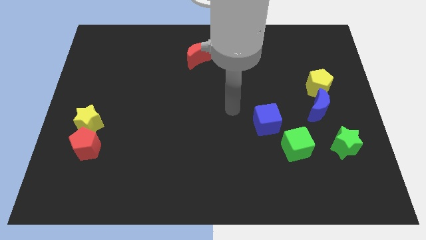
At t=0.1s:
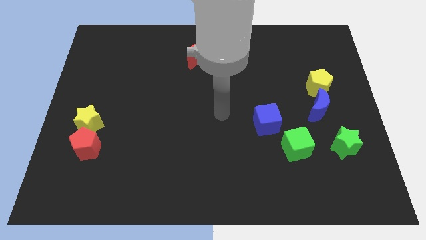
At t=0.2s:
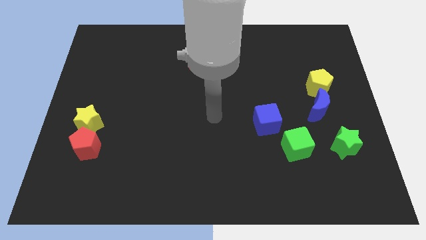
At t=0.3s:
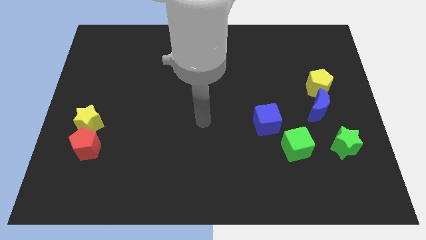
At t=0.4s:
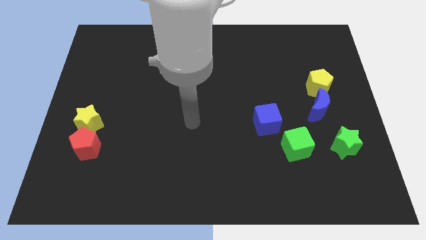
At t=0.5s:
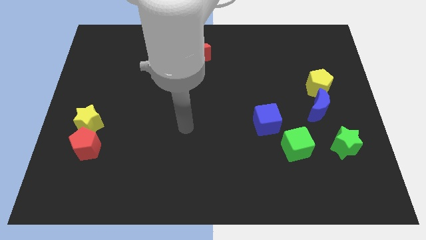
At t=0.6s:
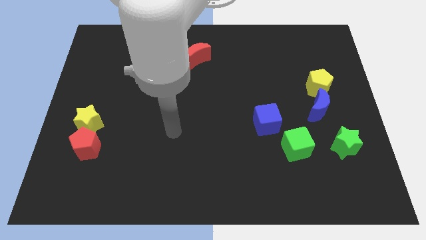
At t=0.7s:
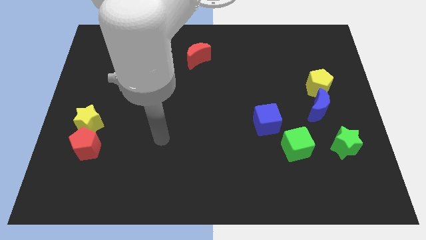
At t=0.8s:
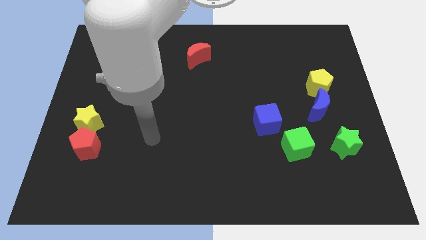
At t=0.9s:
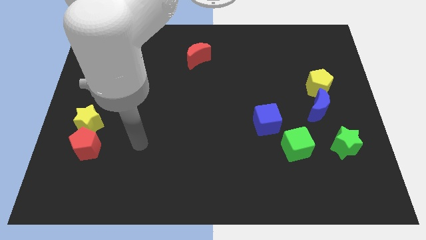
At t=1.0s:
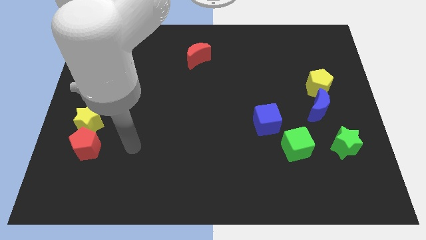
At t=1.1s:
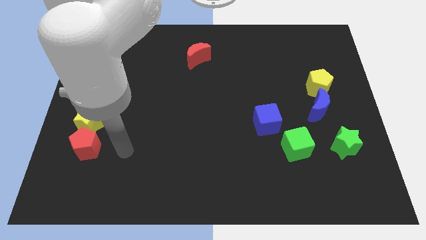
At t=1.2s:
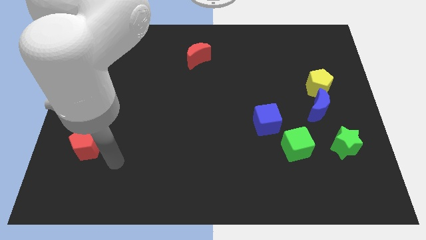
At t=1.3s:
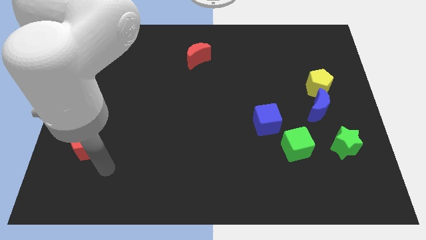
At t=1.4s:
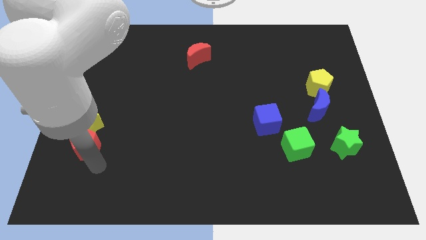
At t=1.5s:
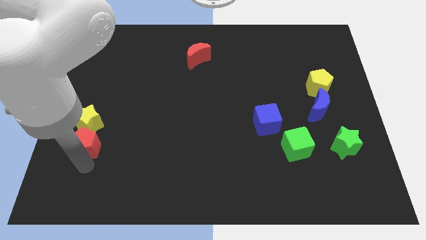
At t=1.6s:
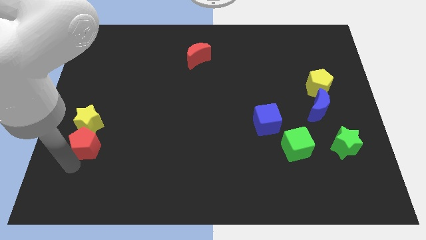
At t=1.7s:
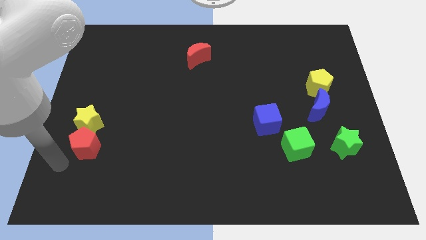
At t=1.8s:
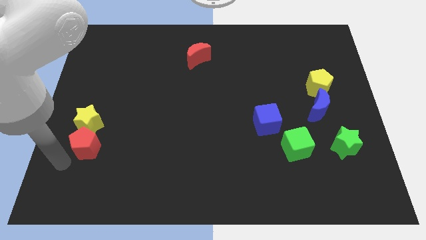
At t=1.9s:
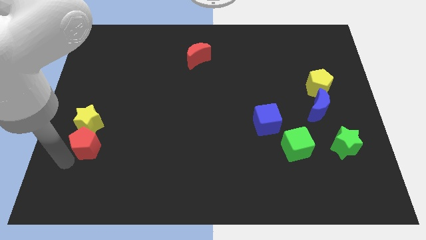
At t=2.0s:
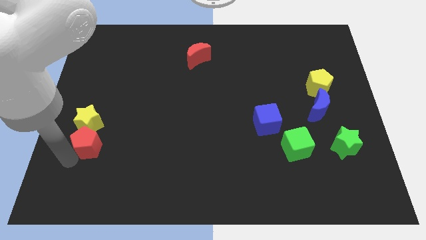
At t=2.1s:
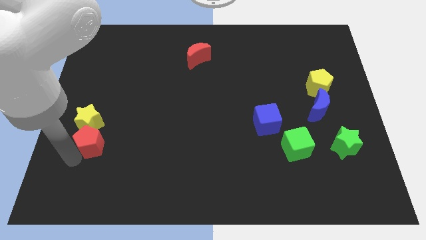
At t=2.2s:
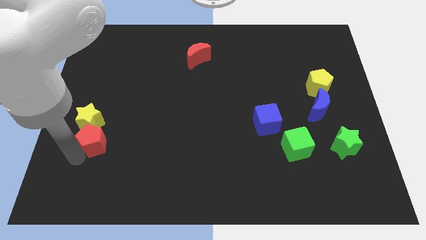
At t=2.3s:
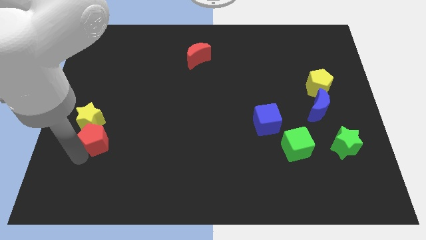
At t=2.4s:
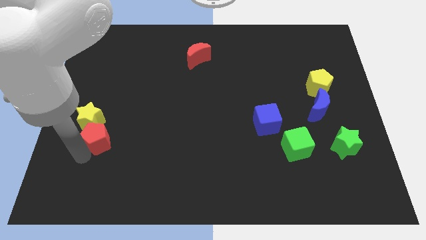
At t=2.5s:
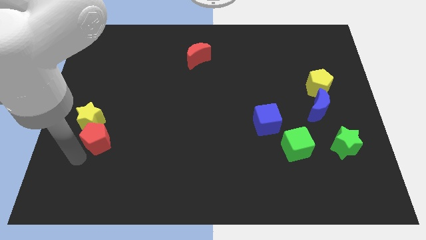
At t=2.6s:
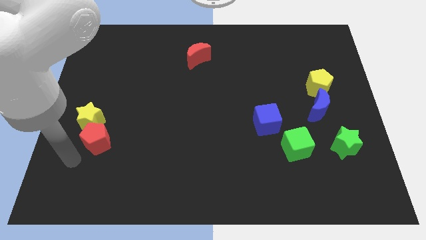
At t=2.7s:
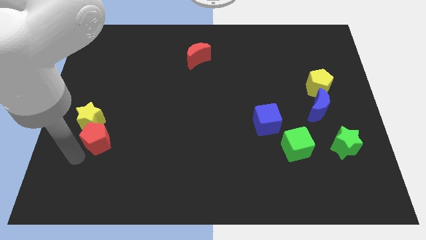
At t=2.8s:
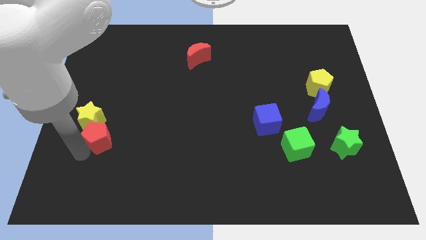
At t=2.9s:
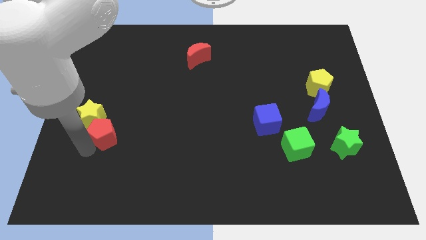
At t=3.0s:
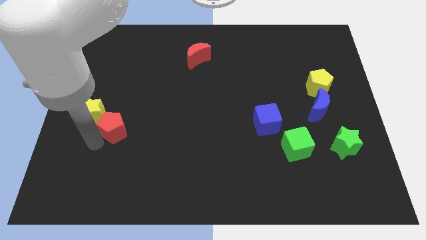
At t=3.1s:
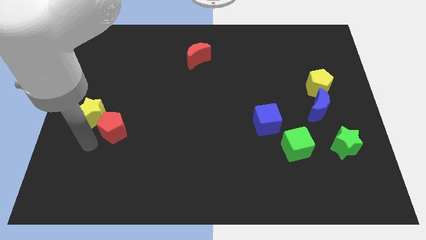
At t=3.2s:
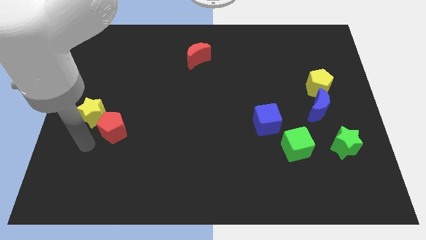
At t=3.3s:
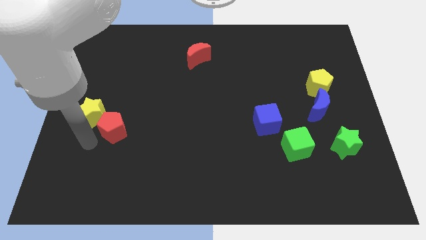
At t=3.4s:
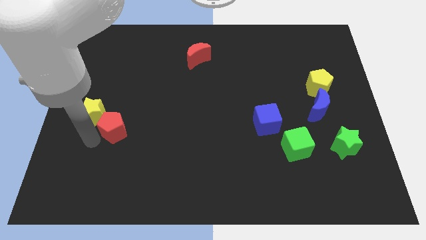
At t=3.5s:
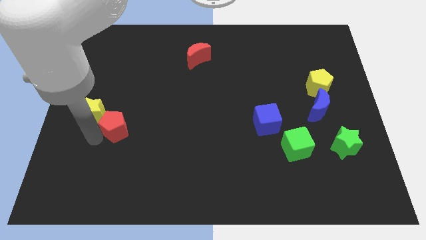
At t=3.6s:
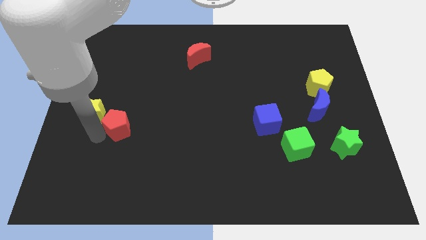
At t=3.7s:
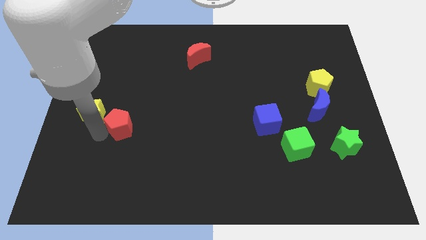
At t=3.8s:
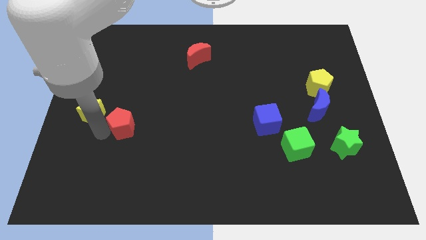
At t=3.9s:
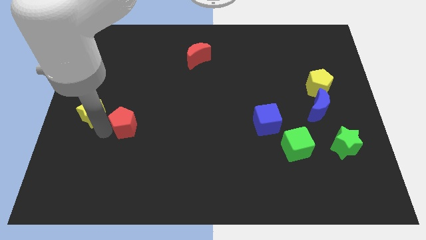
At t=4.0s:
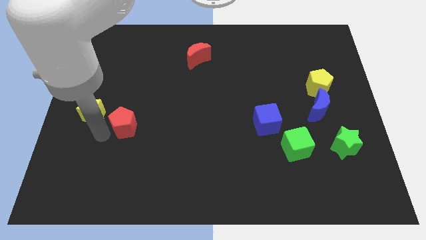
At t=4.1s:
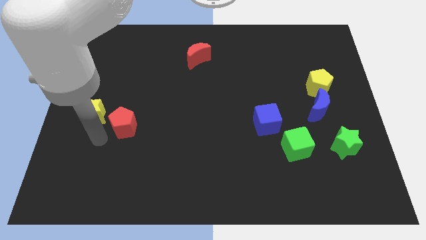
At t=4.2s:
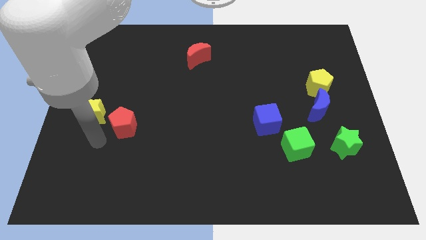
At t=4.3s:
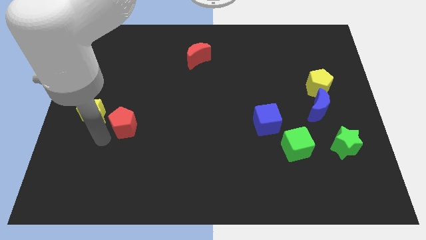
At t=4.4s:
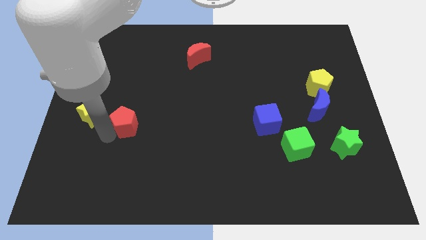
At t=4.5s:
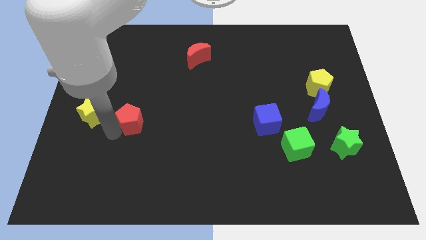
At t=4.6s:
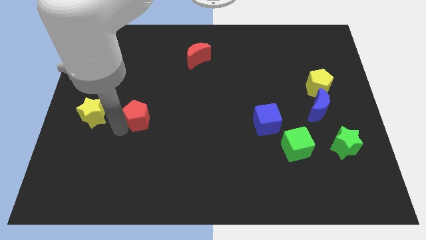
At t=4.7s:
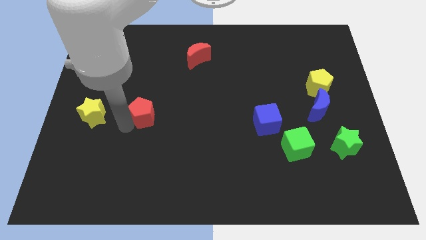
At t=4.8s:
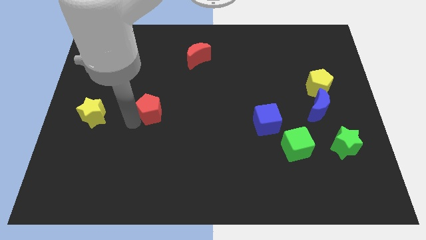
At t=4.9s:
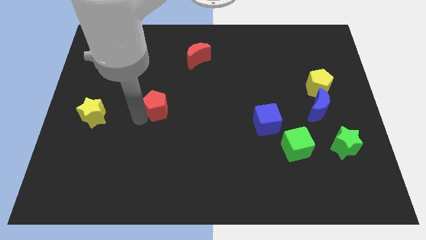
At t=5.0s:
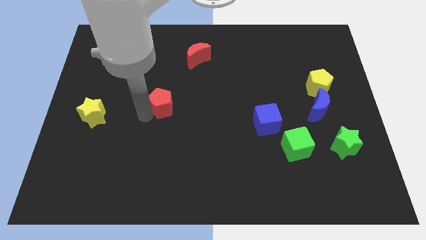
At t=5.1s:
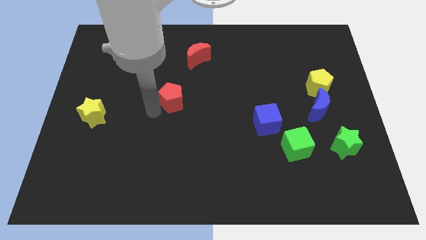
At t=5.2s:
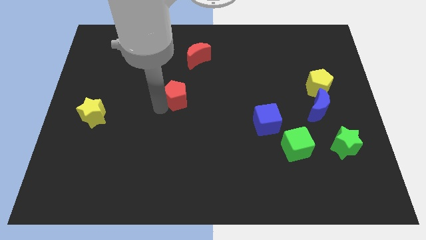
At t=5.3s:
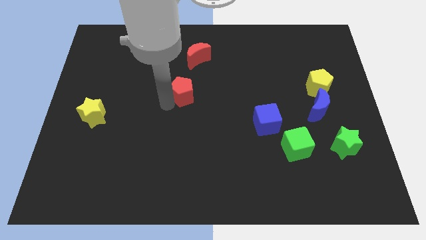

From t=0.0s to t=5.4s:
push the red pentagon to the bottom of the red moon

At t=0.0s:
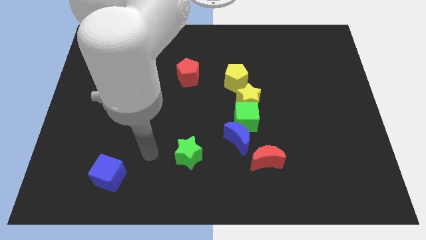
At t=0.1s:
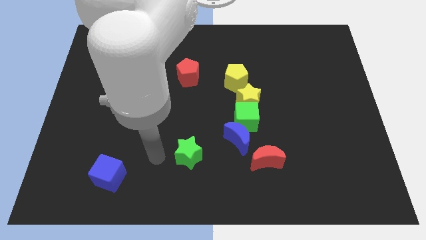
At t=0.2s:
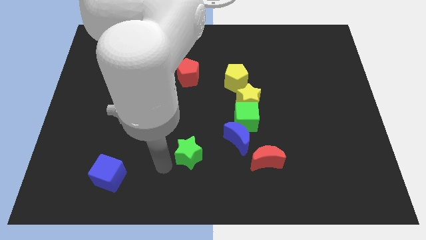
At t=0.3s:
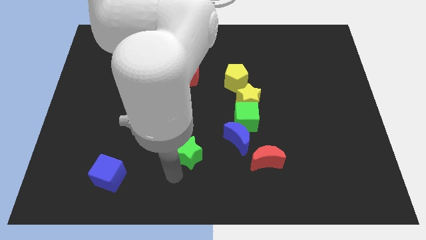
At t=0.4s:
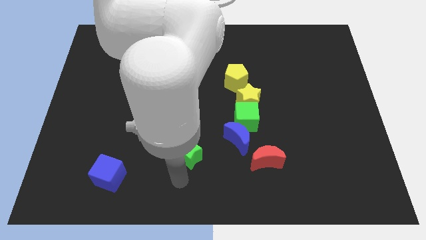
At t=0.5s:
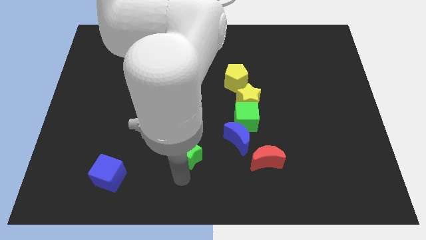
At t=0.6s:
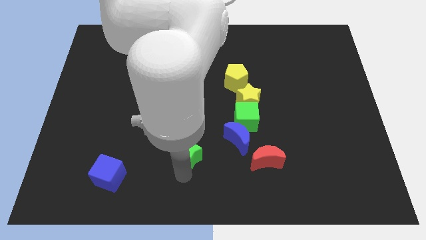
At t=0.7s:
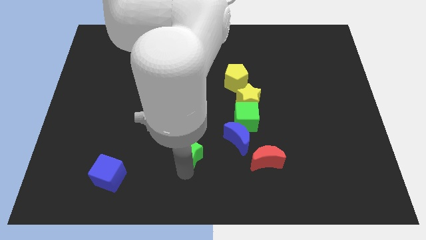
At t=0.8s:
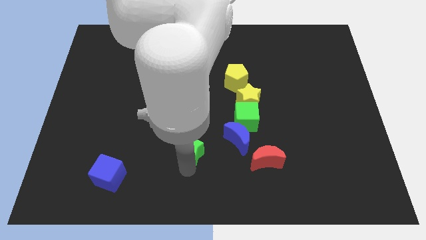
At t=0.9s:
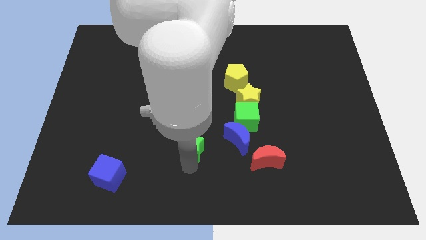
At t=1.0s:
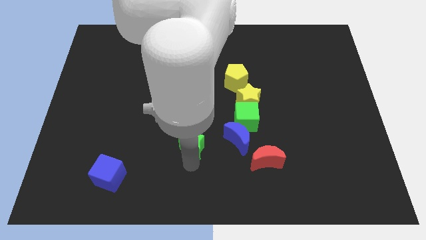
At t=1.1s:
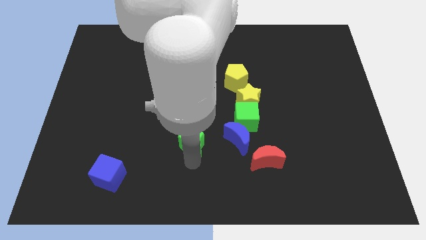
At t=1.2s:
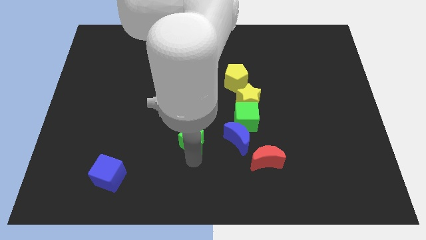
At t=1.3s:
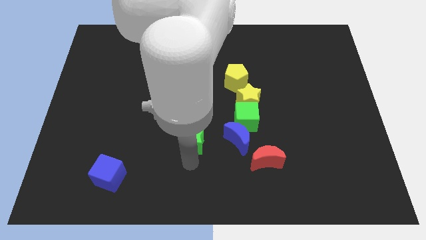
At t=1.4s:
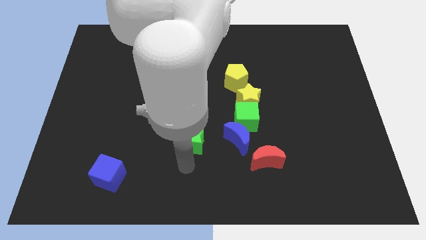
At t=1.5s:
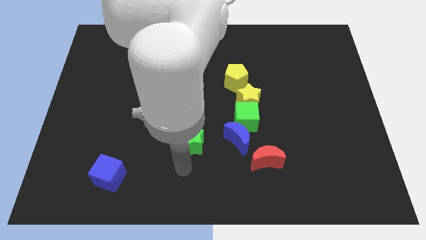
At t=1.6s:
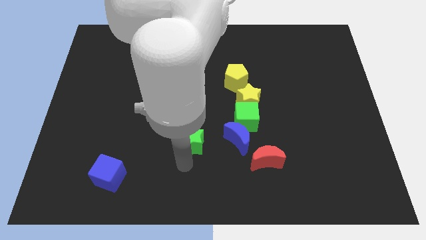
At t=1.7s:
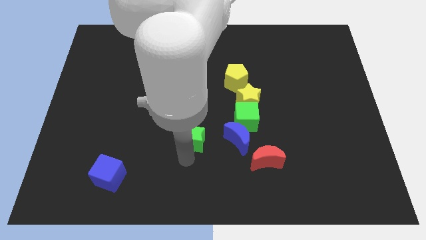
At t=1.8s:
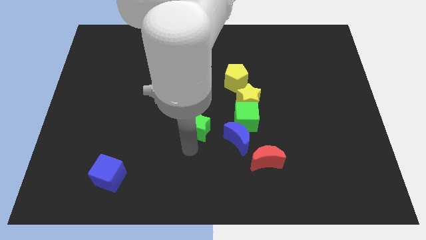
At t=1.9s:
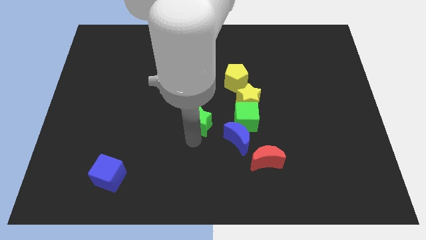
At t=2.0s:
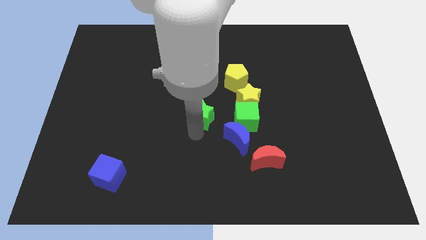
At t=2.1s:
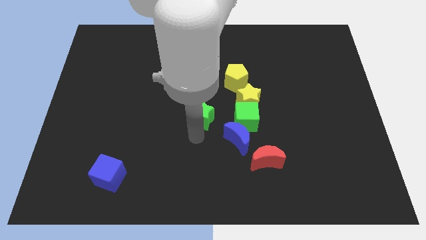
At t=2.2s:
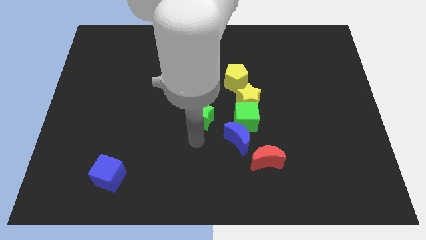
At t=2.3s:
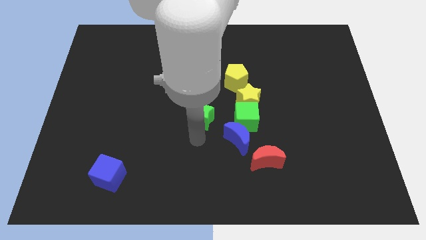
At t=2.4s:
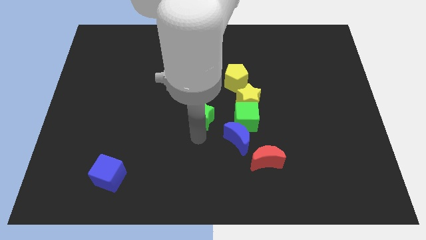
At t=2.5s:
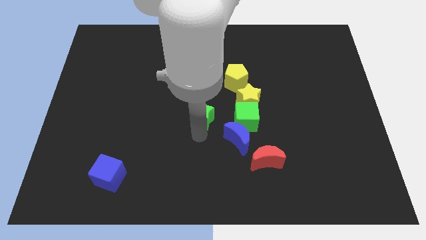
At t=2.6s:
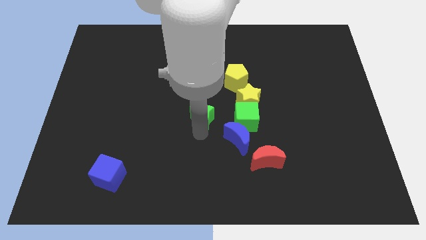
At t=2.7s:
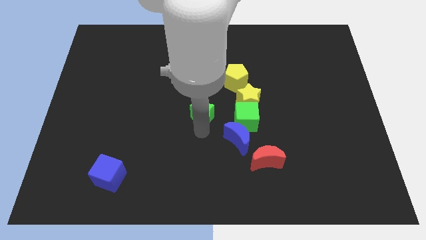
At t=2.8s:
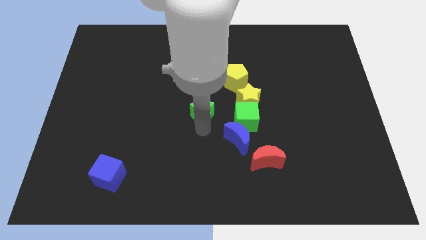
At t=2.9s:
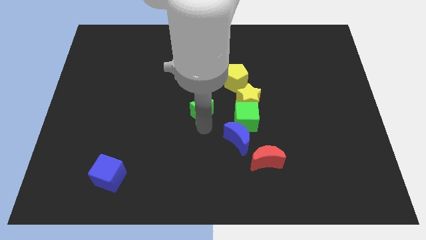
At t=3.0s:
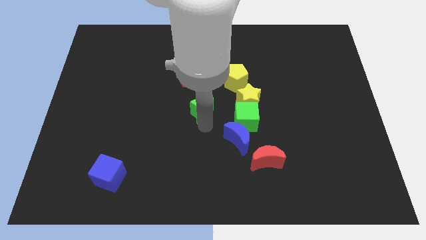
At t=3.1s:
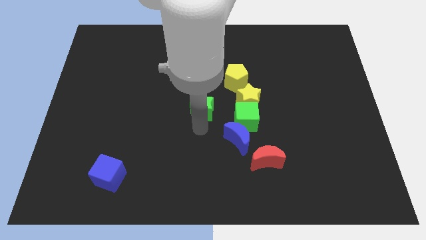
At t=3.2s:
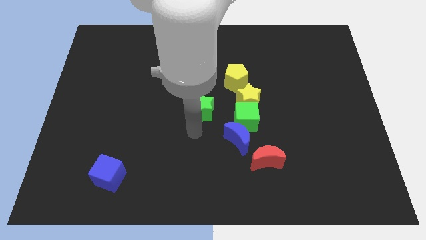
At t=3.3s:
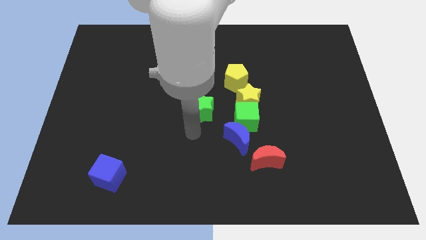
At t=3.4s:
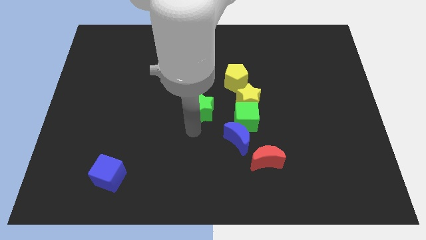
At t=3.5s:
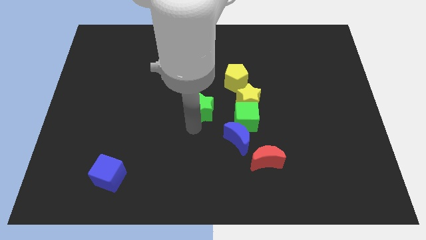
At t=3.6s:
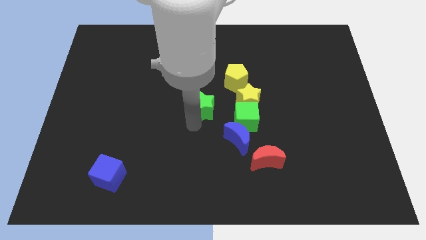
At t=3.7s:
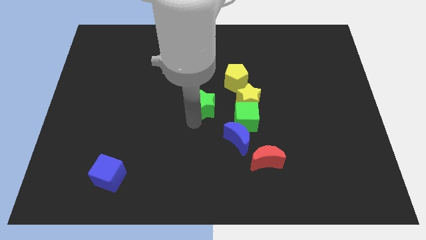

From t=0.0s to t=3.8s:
move the green star to the bottom right of the red pentagon
